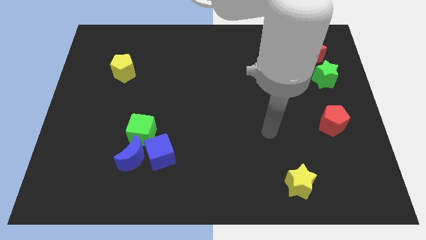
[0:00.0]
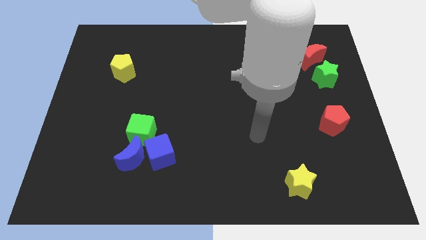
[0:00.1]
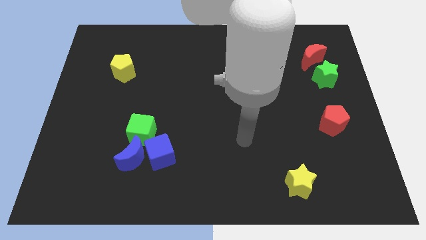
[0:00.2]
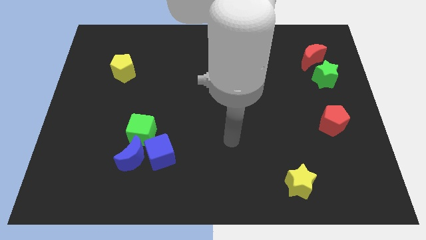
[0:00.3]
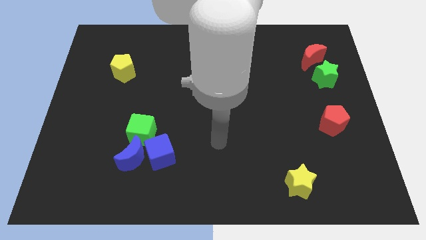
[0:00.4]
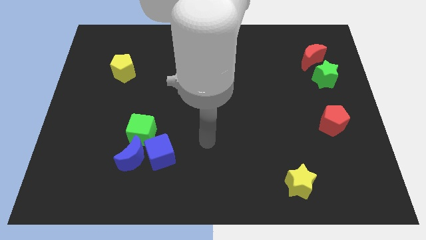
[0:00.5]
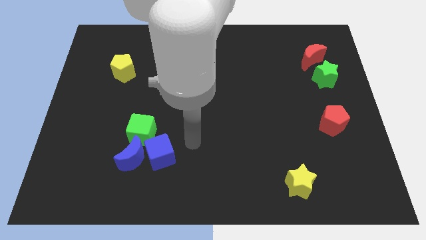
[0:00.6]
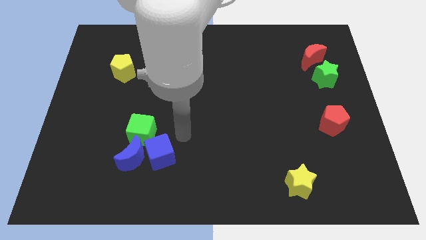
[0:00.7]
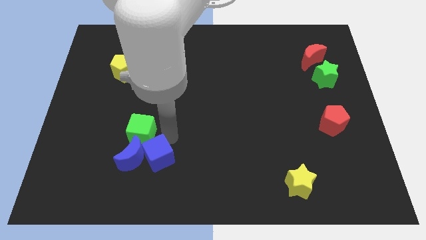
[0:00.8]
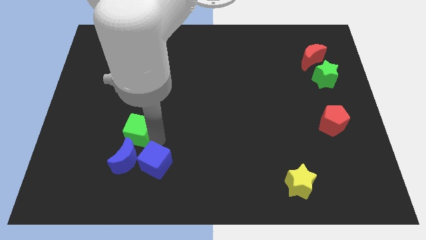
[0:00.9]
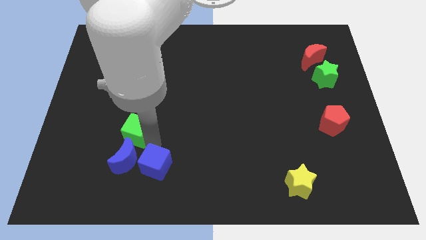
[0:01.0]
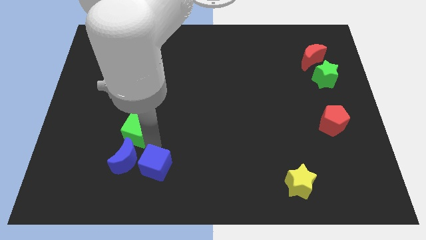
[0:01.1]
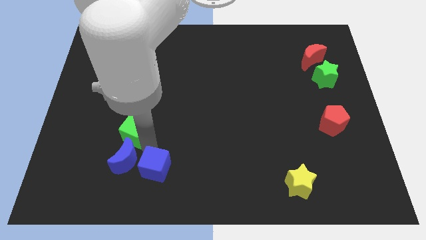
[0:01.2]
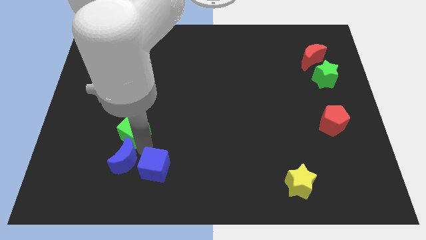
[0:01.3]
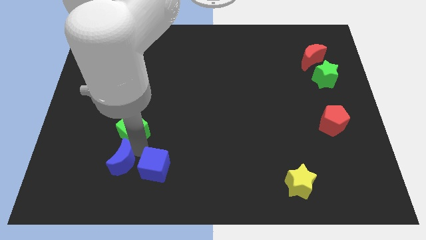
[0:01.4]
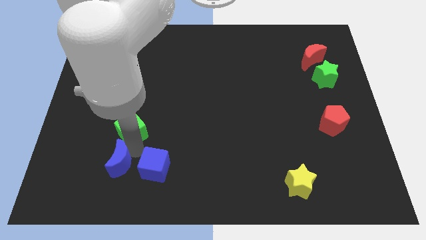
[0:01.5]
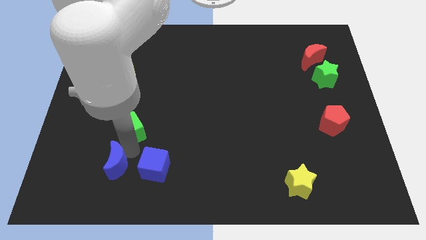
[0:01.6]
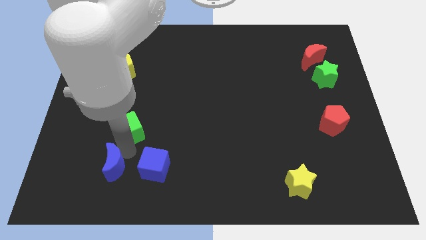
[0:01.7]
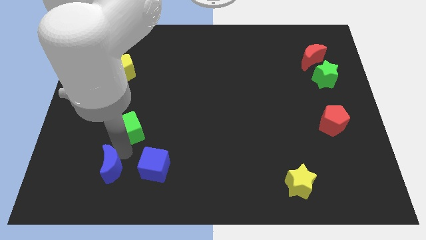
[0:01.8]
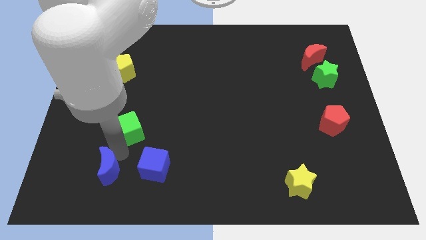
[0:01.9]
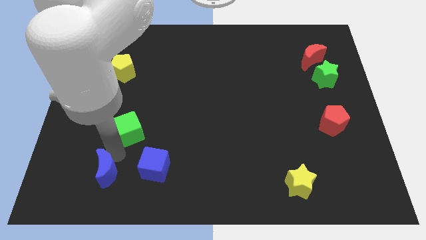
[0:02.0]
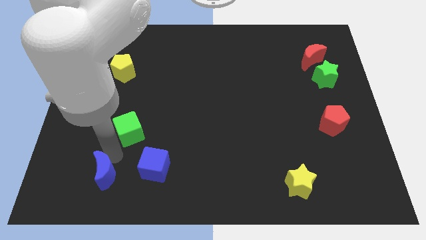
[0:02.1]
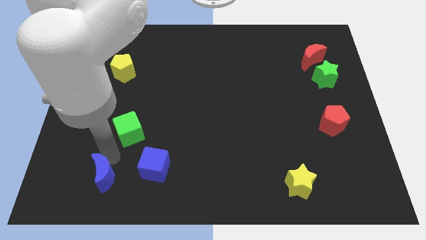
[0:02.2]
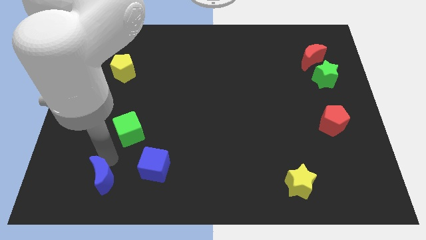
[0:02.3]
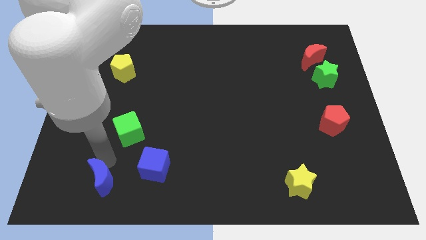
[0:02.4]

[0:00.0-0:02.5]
pull the blue moon apart from the blue cube and green cube

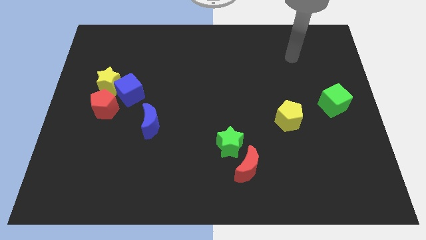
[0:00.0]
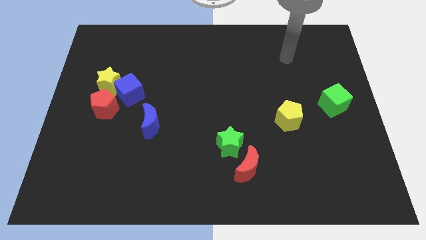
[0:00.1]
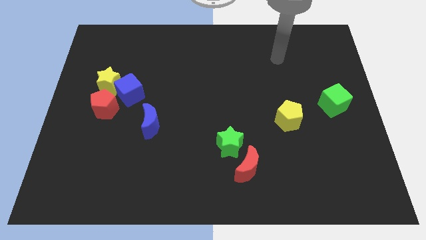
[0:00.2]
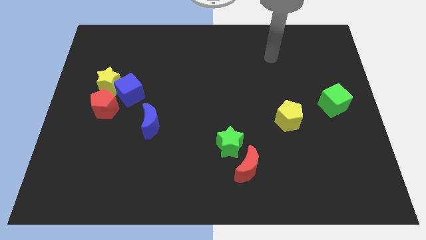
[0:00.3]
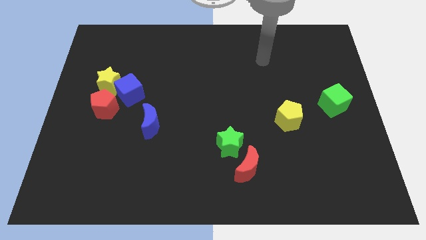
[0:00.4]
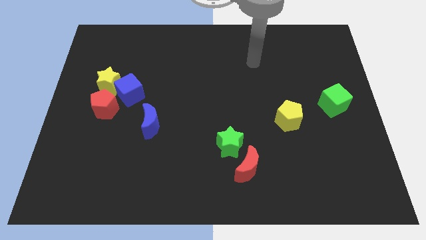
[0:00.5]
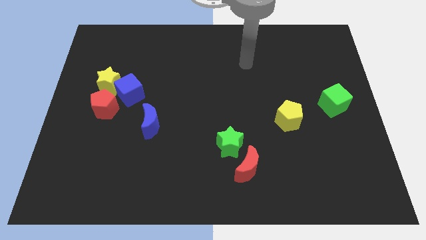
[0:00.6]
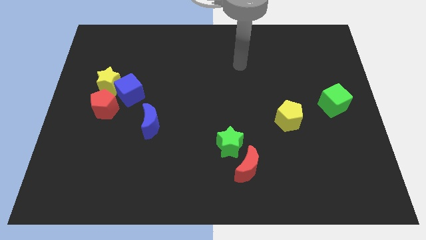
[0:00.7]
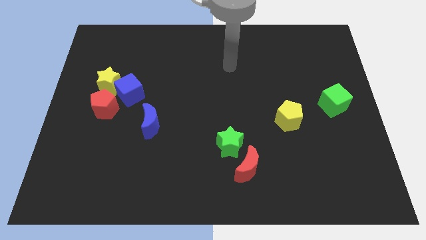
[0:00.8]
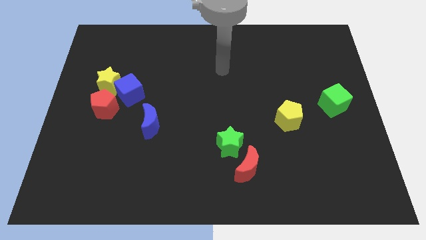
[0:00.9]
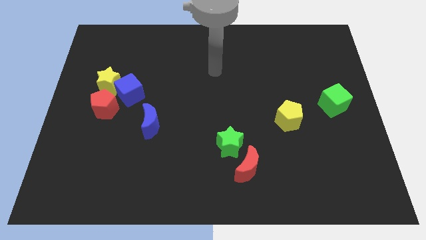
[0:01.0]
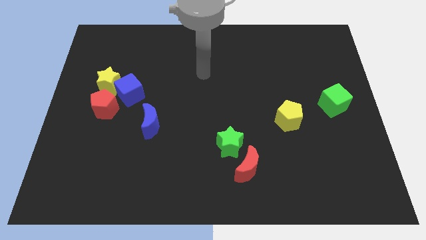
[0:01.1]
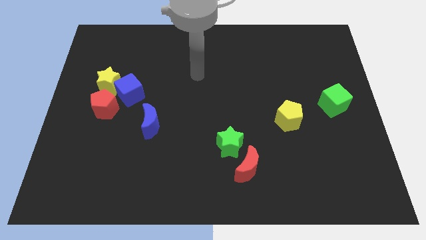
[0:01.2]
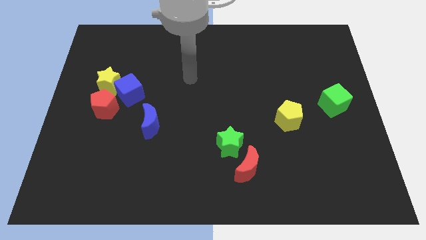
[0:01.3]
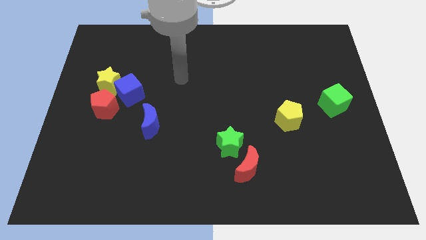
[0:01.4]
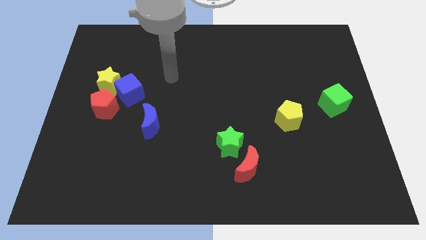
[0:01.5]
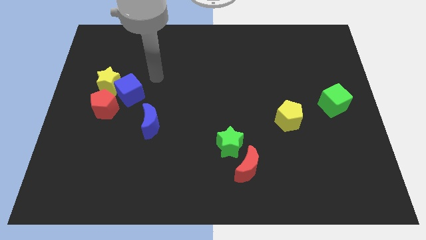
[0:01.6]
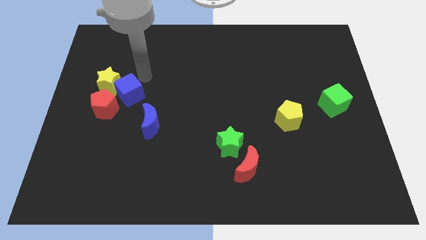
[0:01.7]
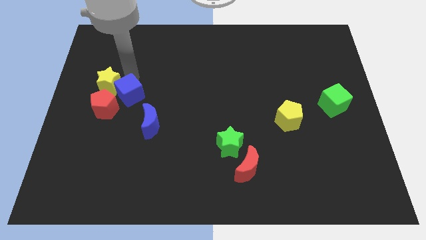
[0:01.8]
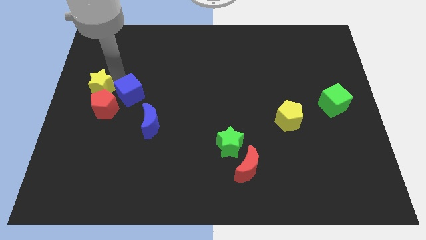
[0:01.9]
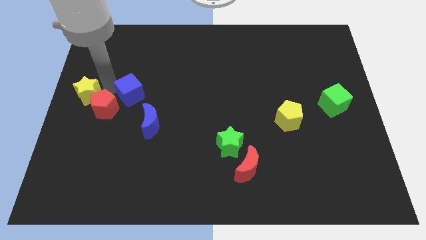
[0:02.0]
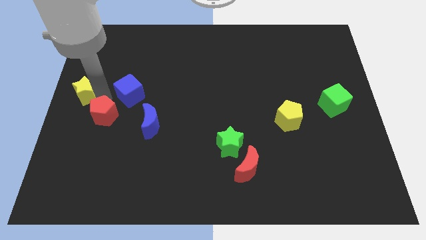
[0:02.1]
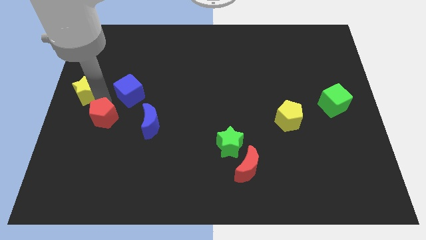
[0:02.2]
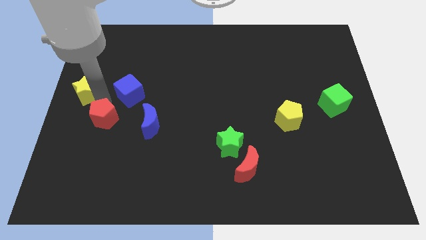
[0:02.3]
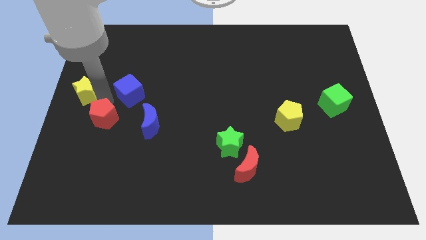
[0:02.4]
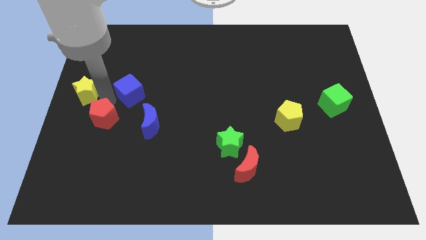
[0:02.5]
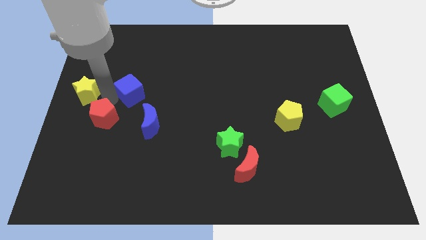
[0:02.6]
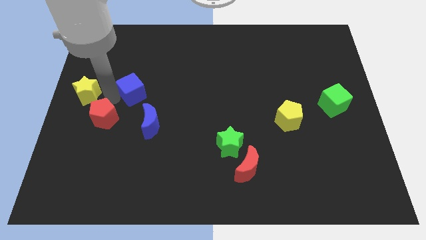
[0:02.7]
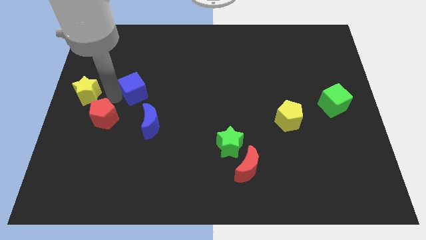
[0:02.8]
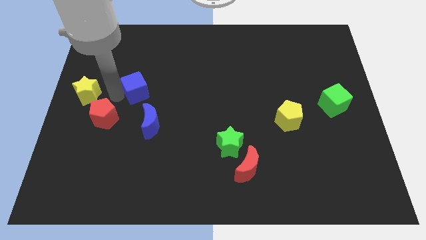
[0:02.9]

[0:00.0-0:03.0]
separate the blue cube from the yellow star and red pentagon

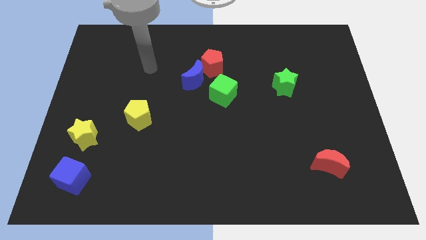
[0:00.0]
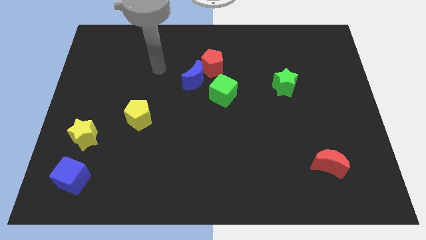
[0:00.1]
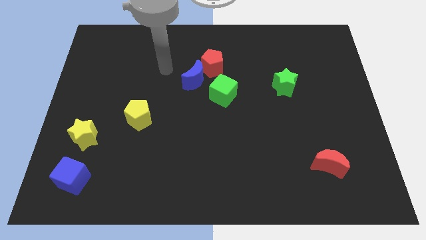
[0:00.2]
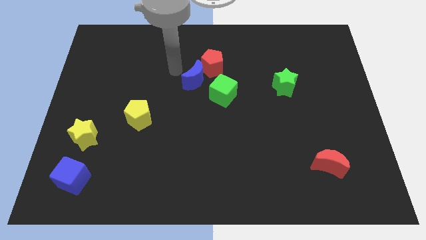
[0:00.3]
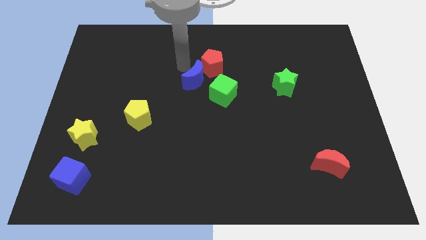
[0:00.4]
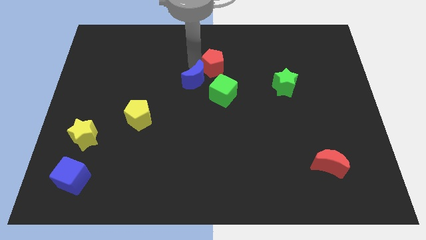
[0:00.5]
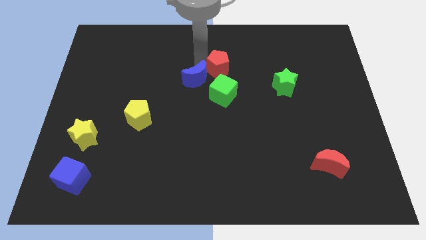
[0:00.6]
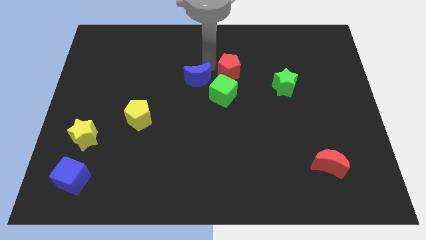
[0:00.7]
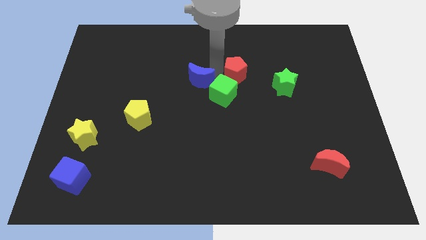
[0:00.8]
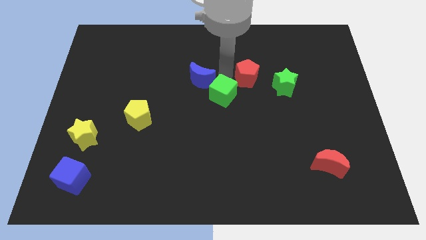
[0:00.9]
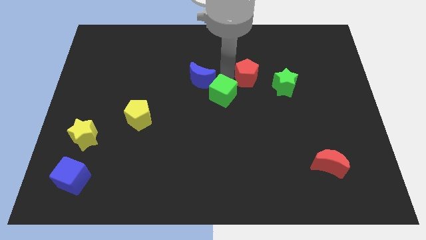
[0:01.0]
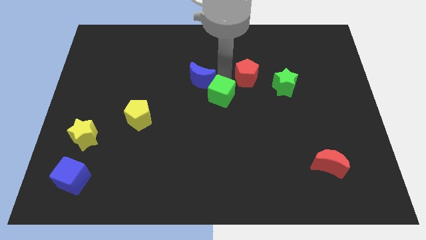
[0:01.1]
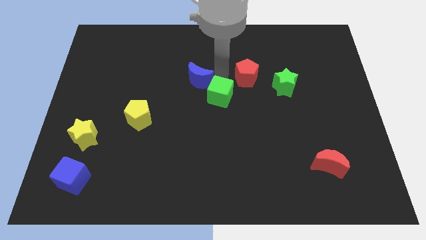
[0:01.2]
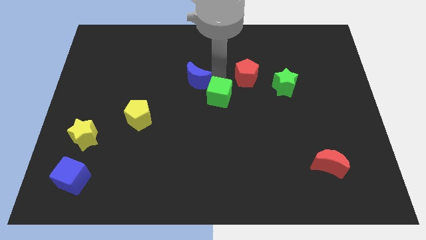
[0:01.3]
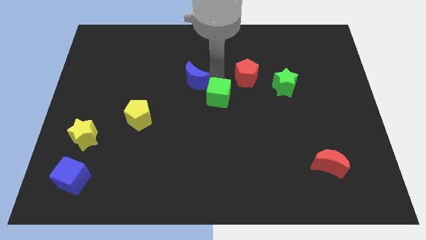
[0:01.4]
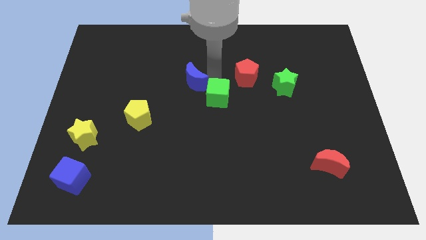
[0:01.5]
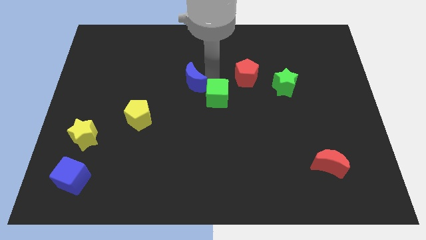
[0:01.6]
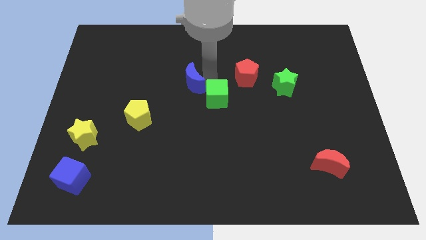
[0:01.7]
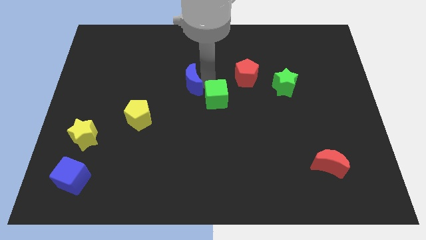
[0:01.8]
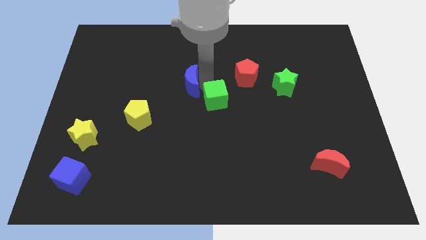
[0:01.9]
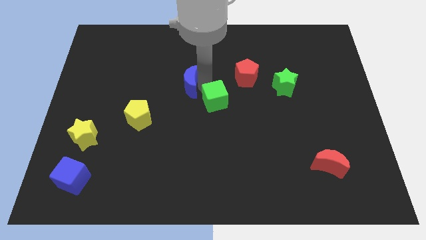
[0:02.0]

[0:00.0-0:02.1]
move the blue moon away from the red pentagon and green cube

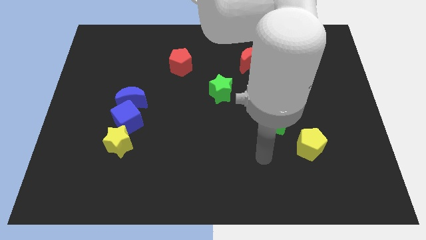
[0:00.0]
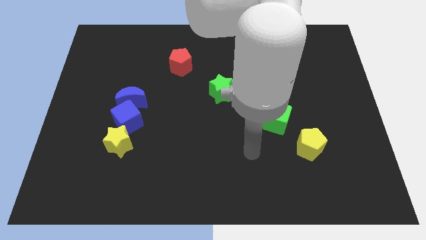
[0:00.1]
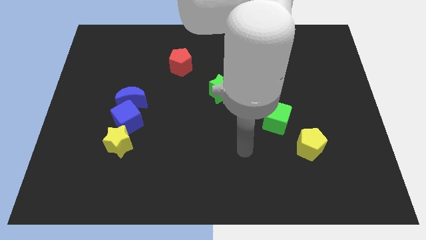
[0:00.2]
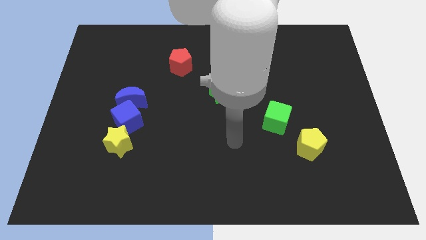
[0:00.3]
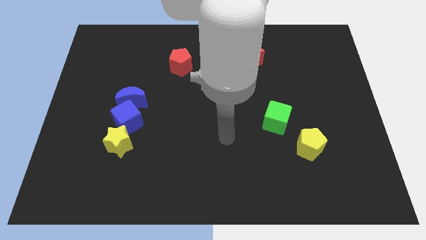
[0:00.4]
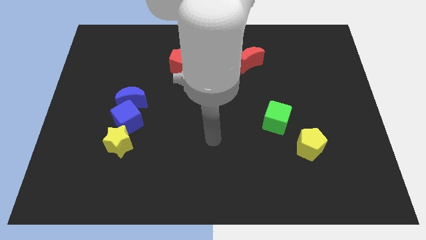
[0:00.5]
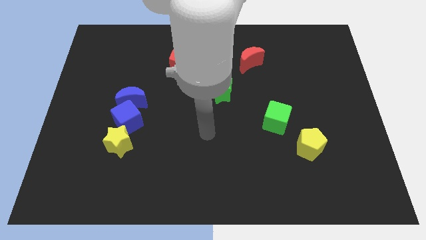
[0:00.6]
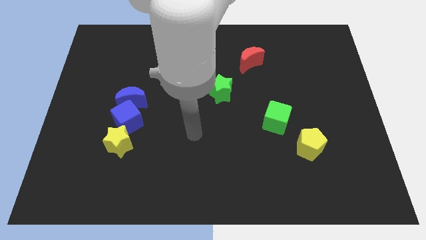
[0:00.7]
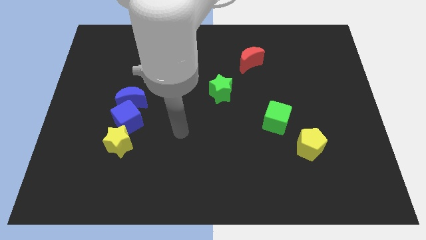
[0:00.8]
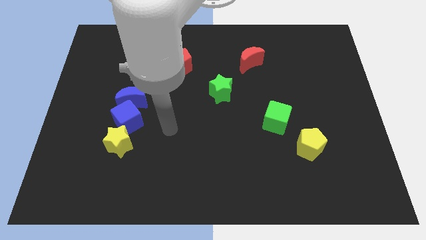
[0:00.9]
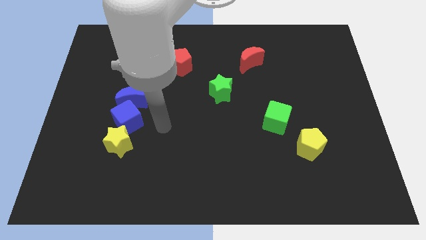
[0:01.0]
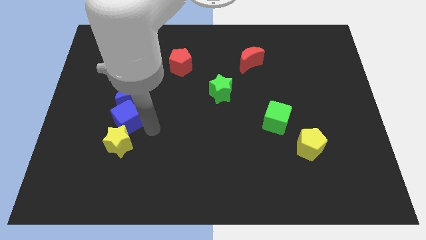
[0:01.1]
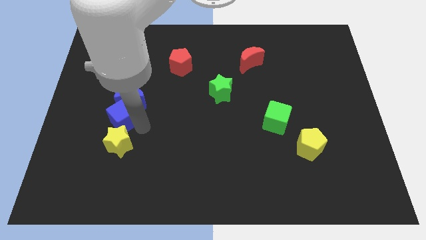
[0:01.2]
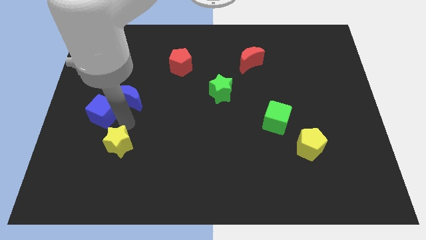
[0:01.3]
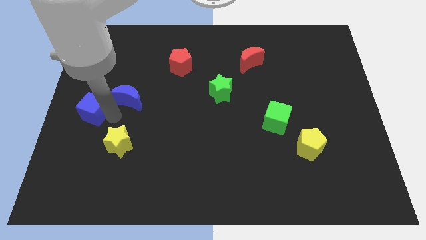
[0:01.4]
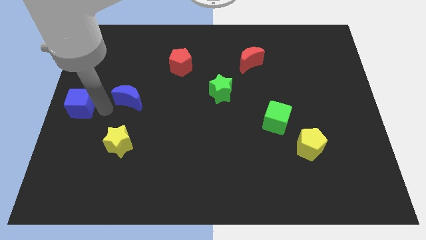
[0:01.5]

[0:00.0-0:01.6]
separate the blue moon from the blue cube
